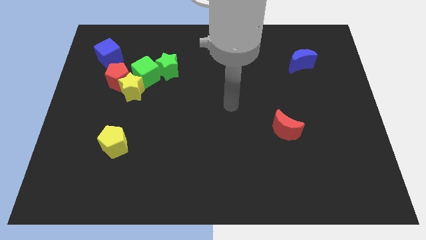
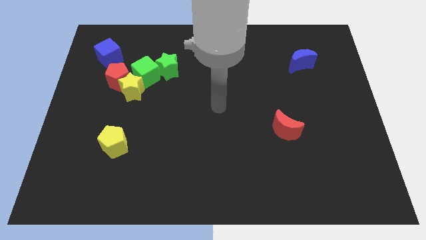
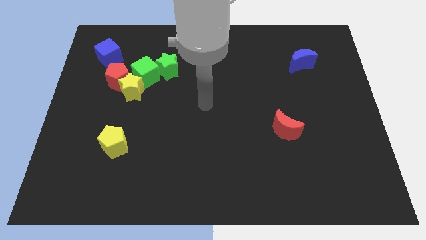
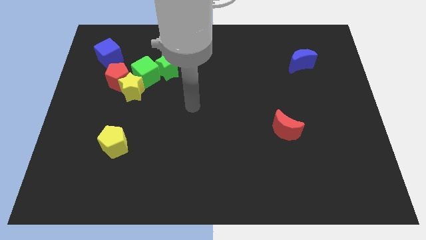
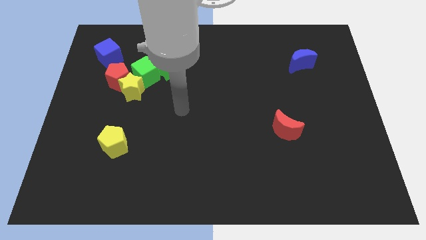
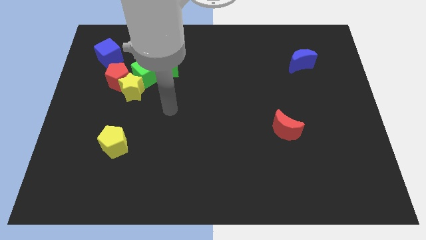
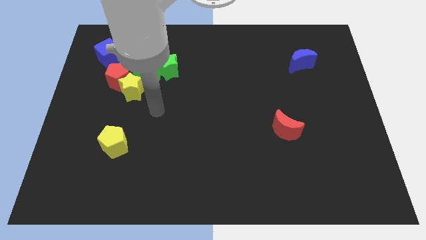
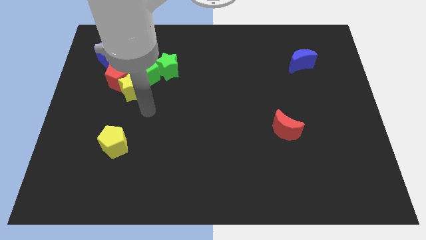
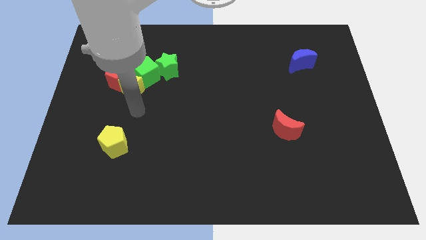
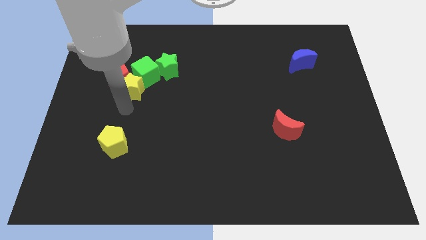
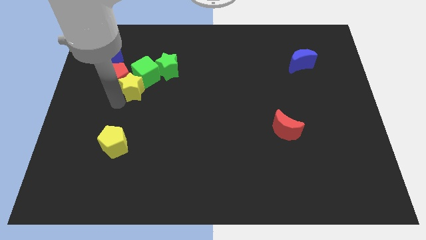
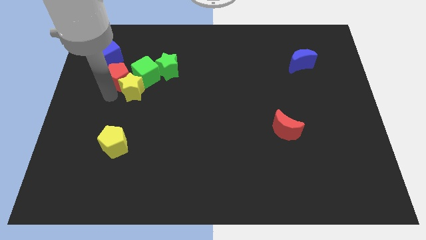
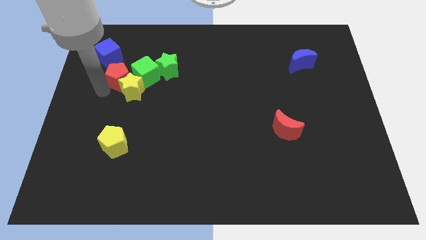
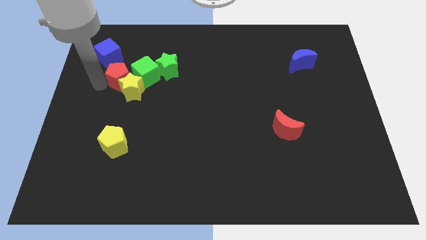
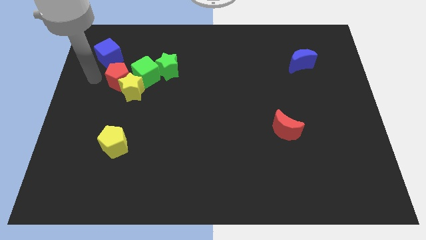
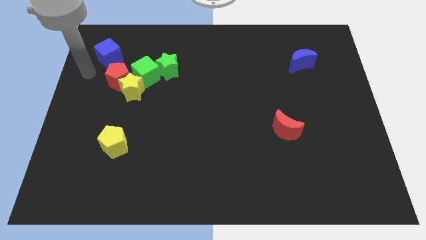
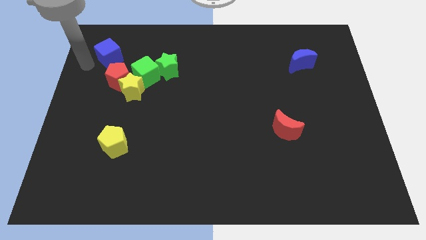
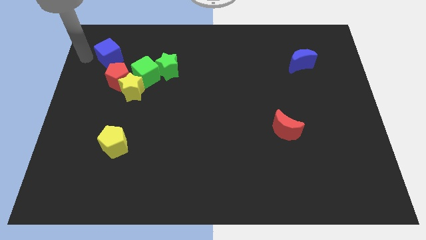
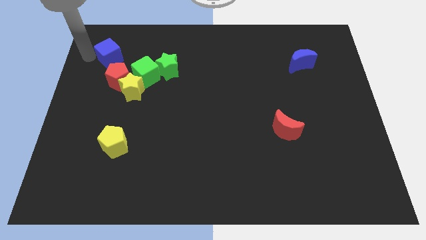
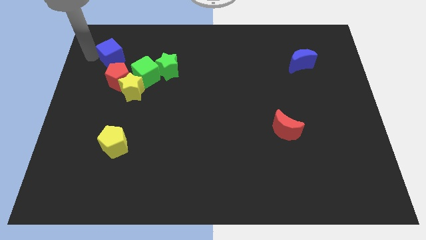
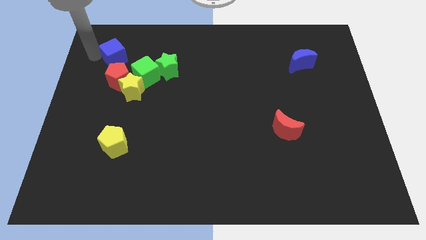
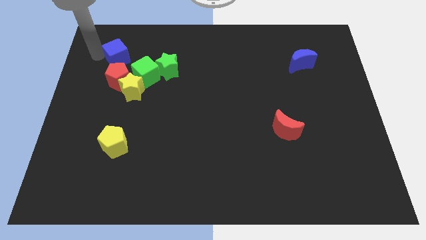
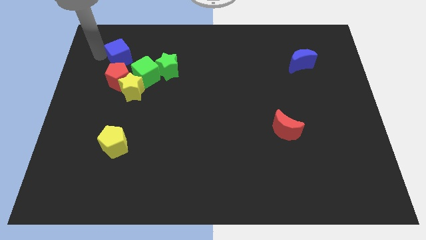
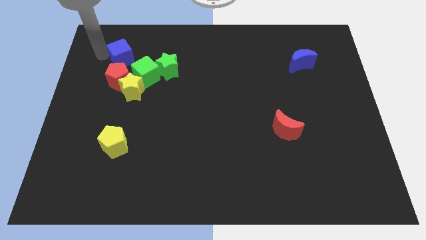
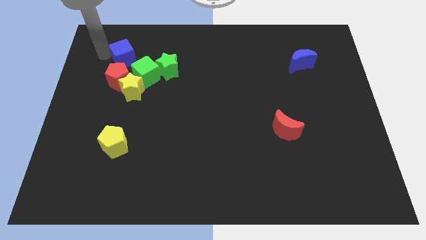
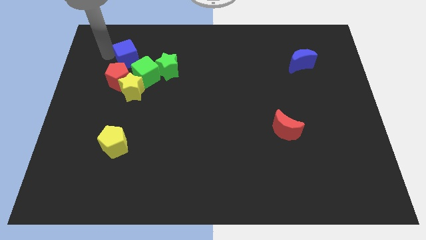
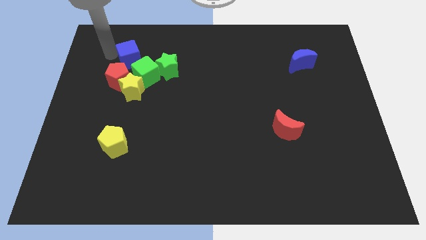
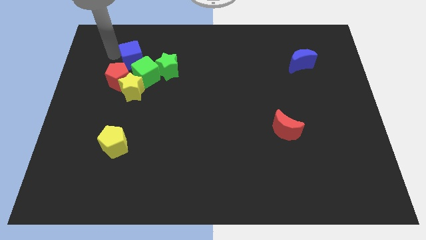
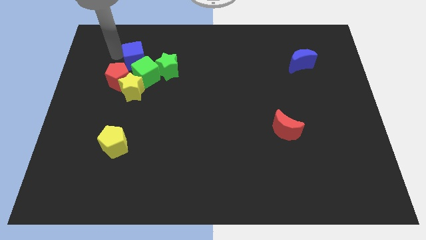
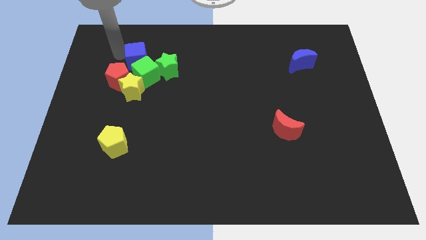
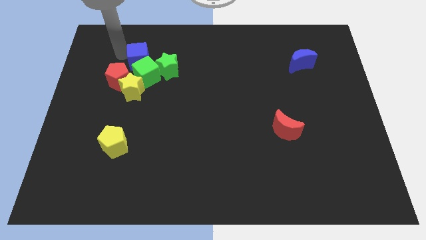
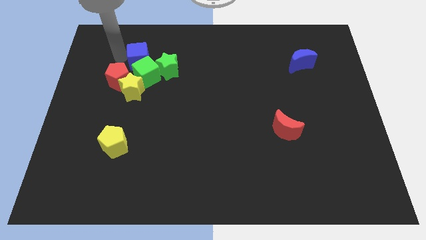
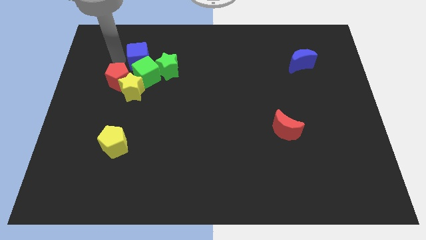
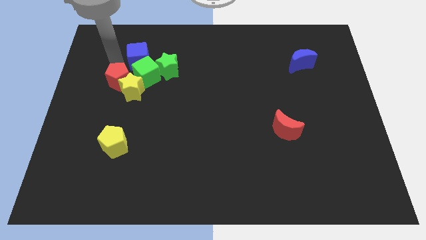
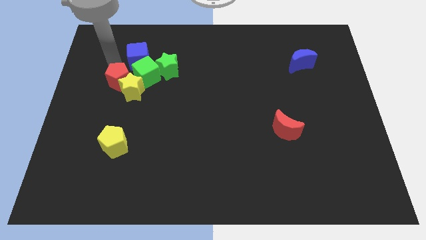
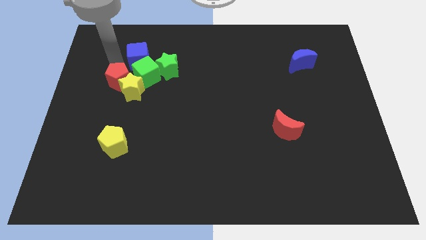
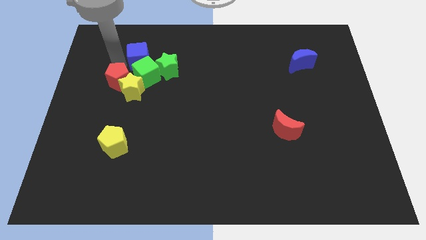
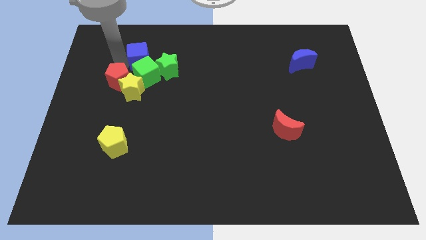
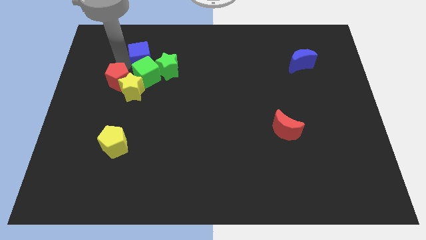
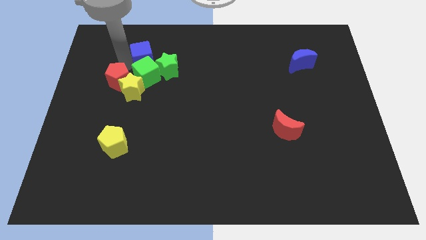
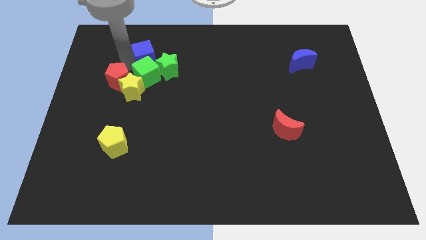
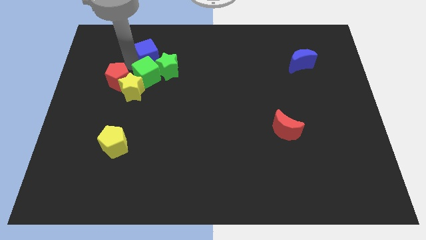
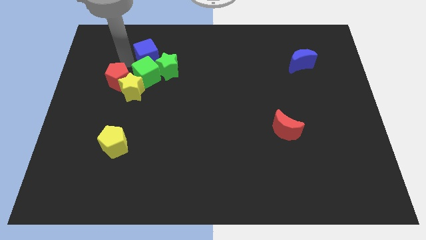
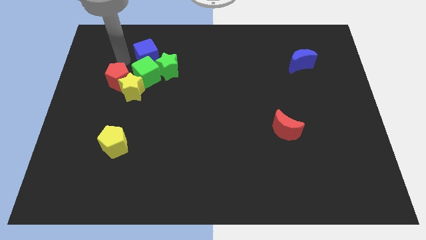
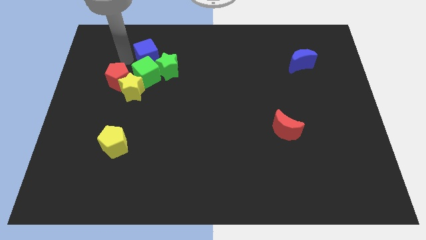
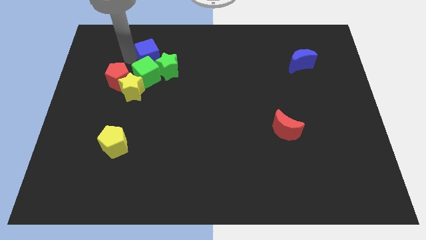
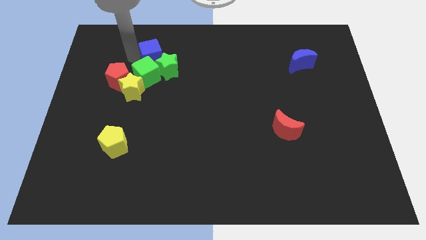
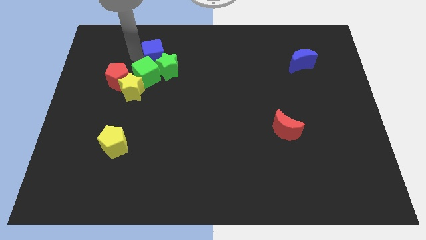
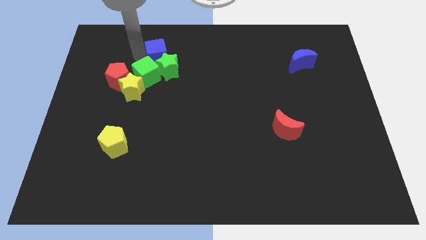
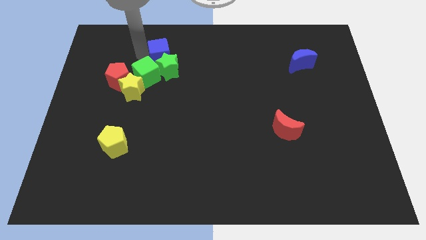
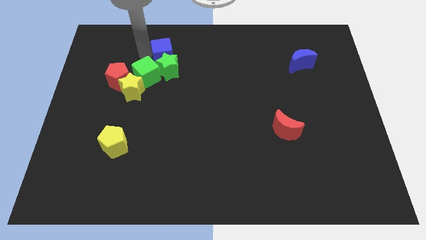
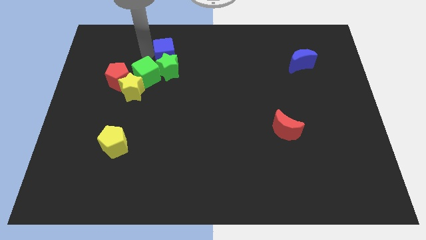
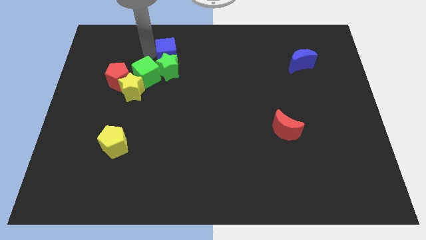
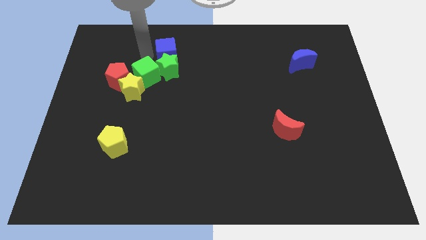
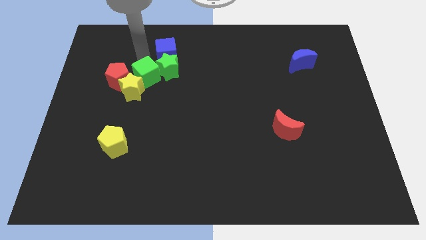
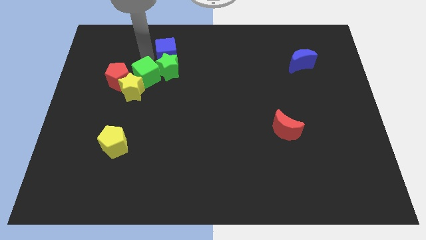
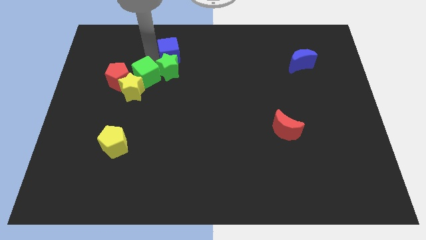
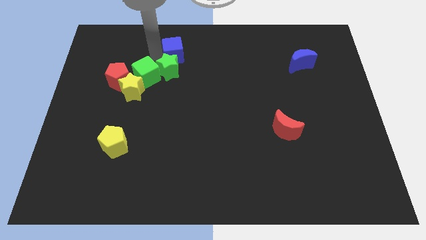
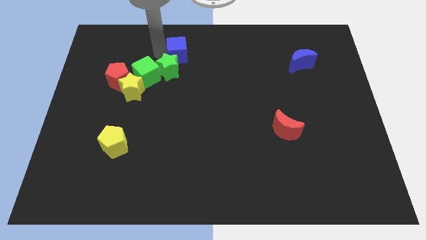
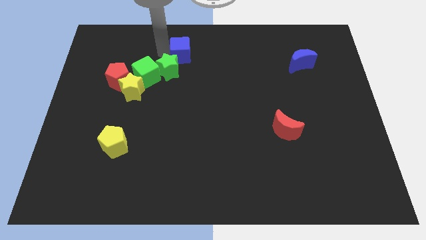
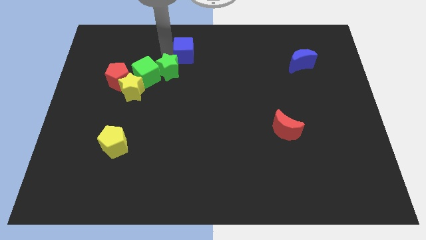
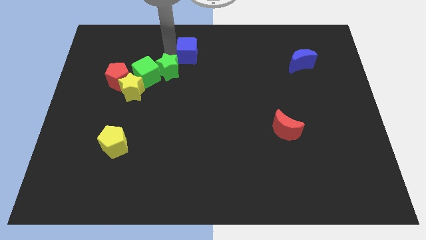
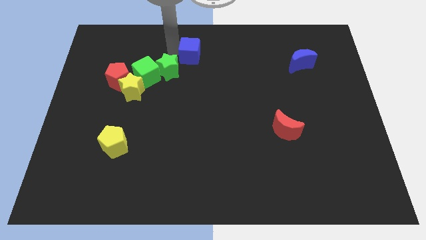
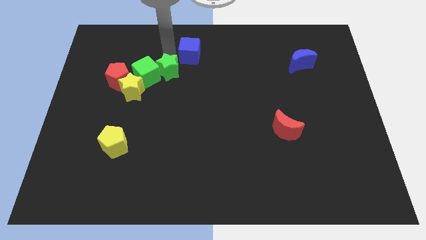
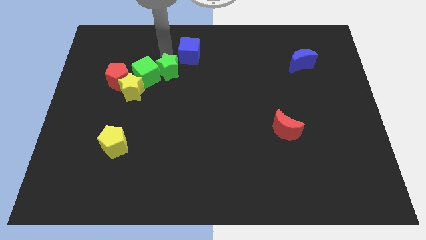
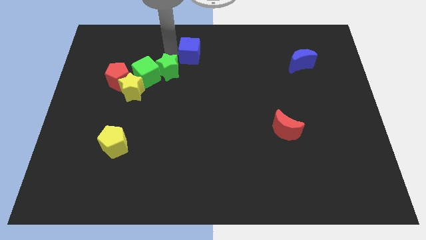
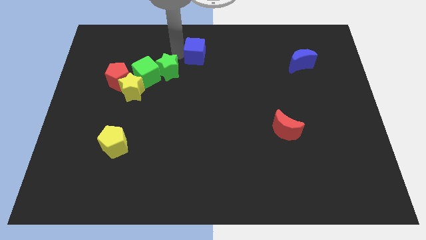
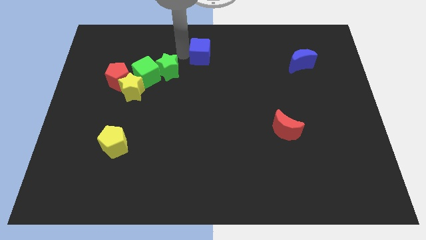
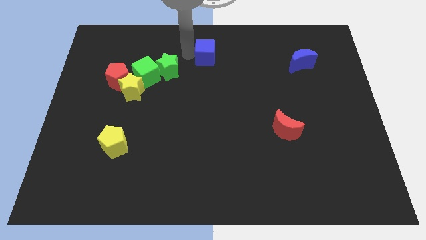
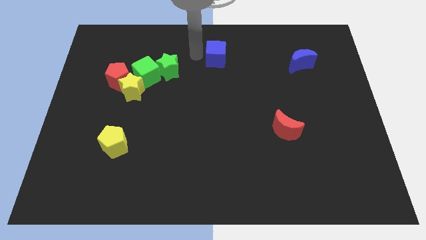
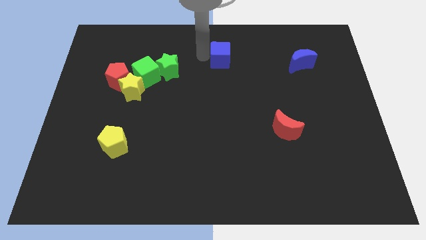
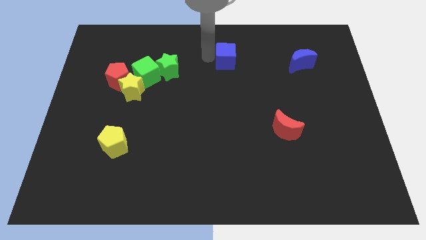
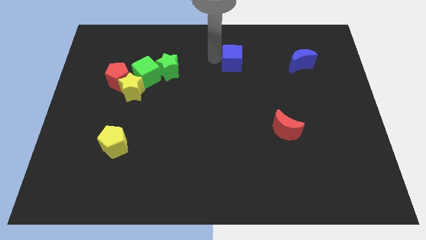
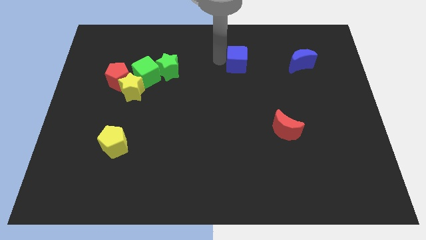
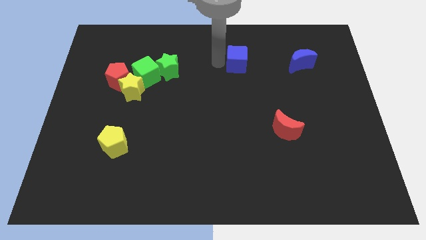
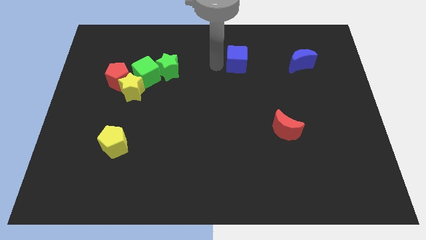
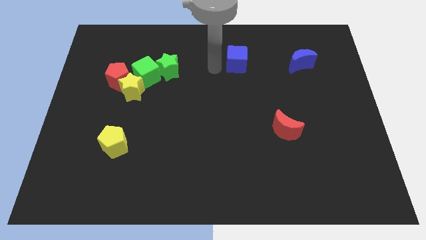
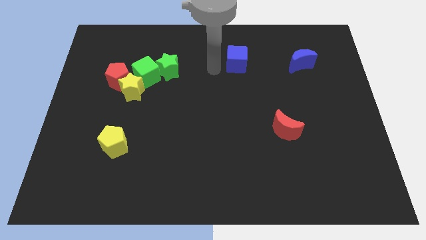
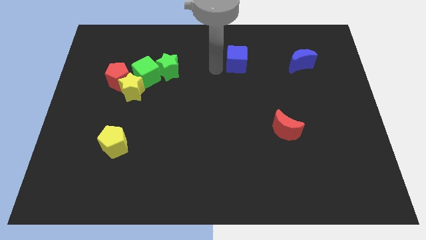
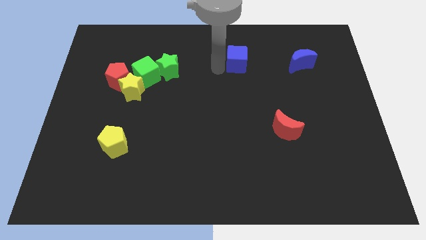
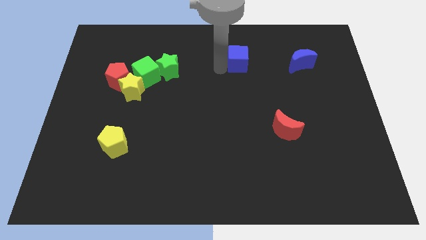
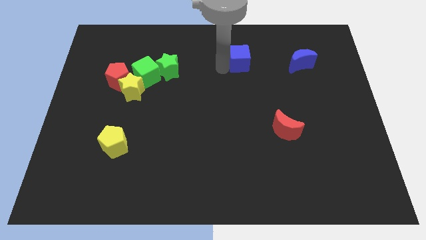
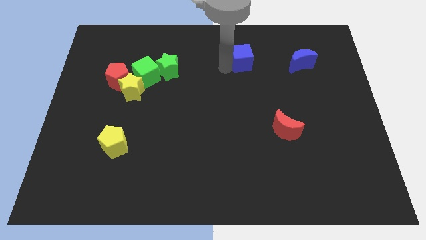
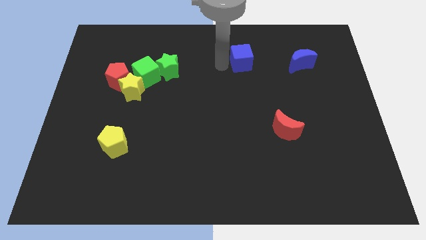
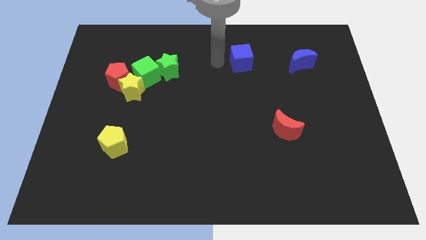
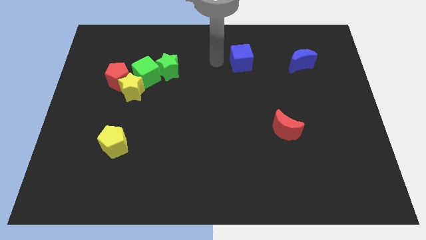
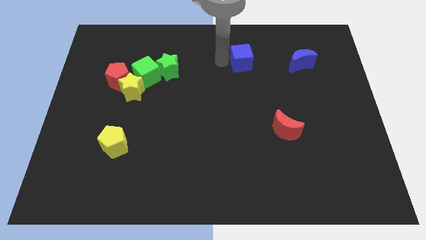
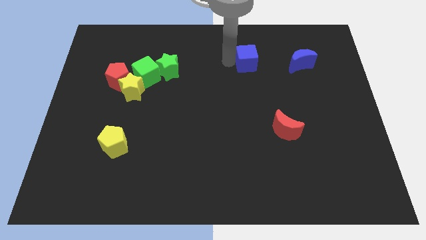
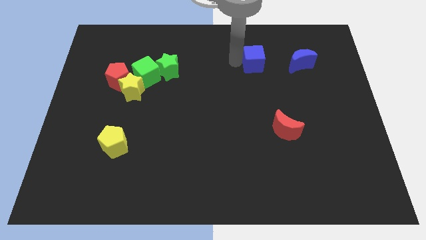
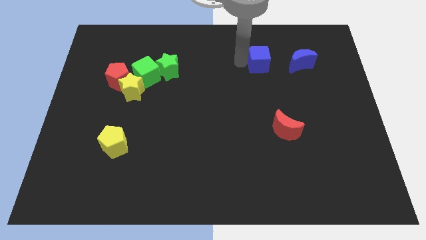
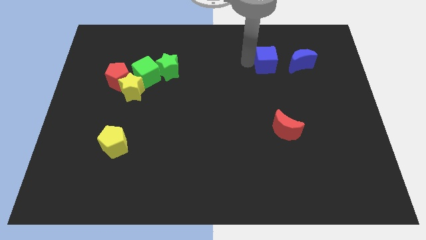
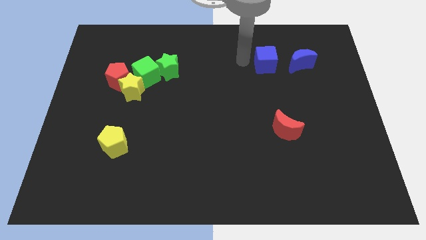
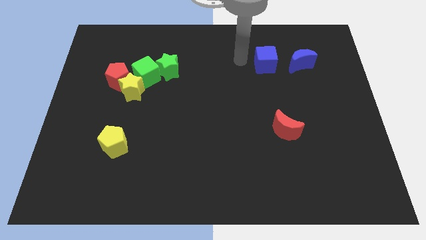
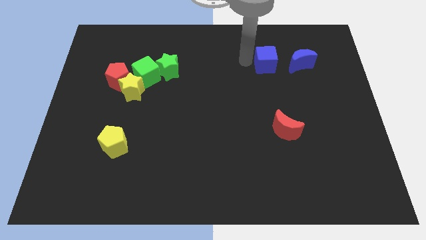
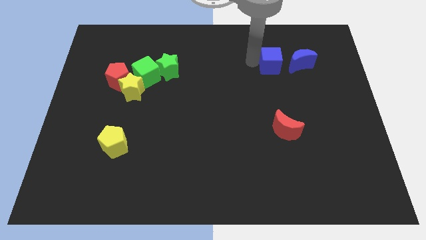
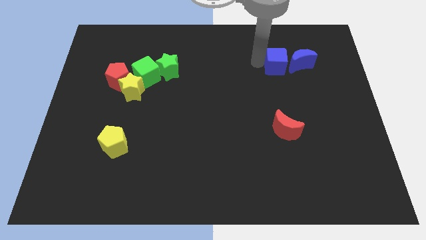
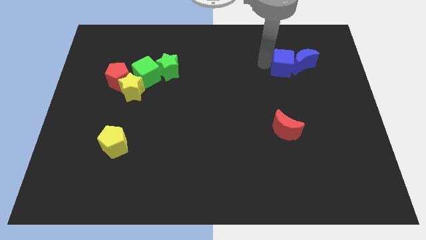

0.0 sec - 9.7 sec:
put the blue cube next to the blue moon
